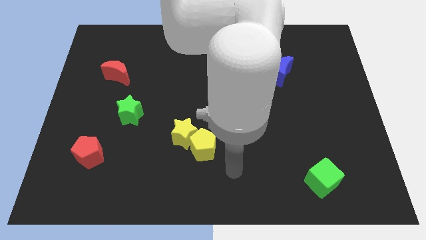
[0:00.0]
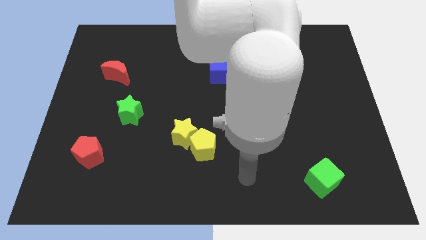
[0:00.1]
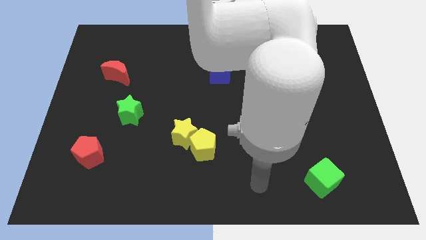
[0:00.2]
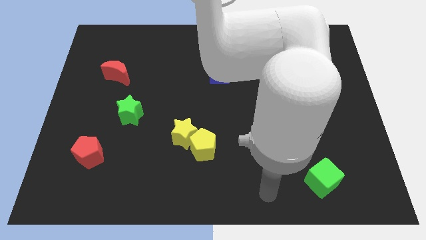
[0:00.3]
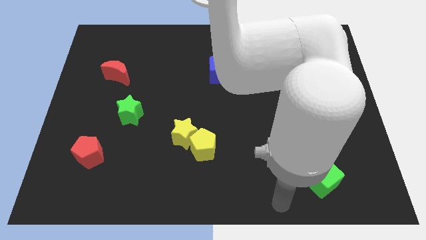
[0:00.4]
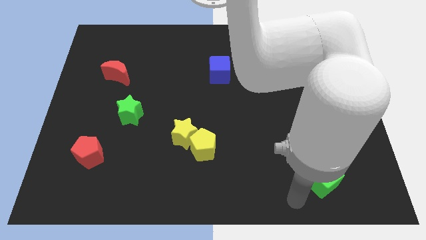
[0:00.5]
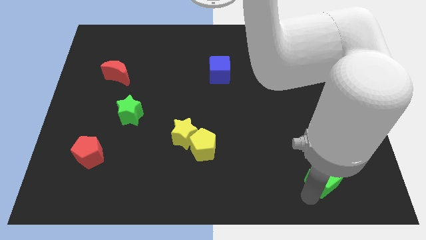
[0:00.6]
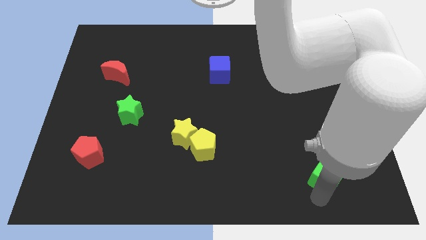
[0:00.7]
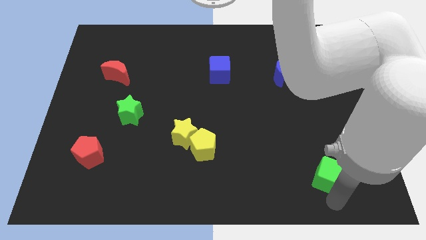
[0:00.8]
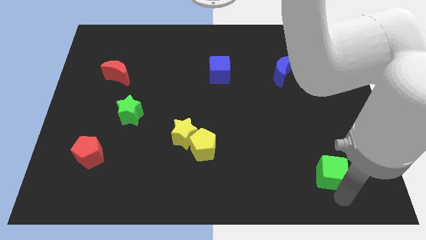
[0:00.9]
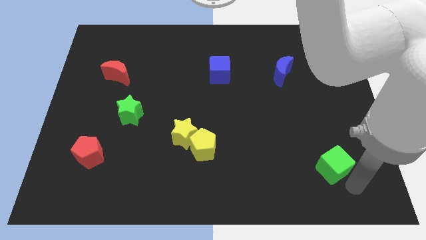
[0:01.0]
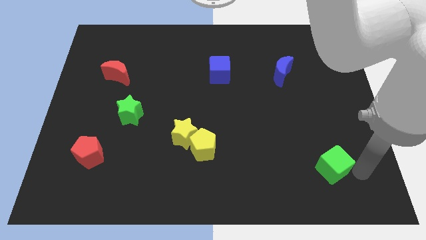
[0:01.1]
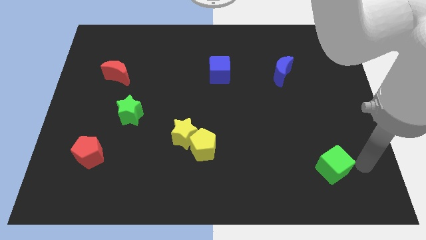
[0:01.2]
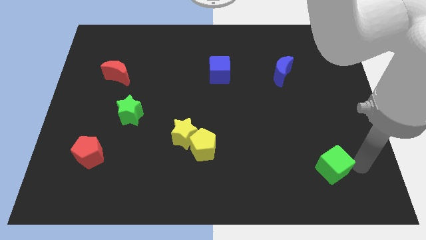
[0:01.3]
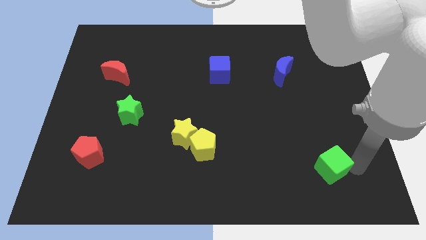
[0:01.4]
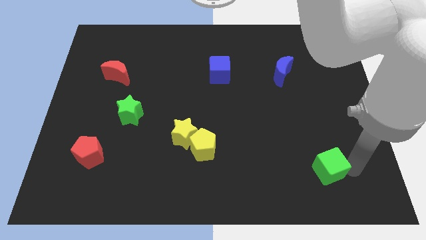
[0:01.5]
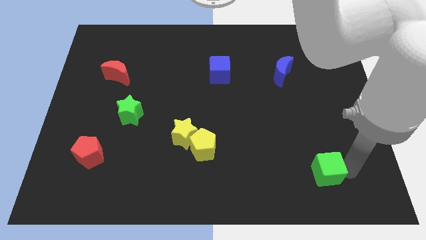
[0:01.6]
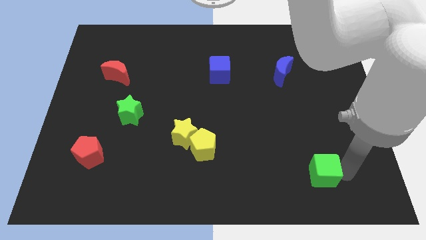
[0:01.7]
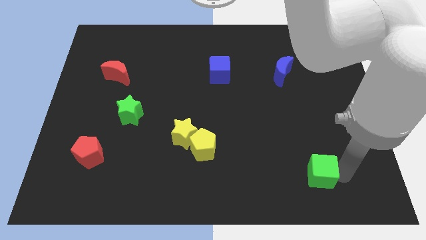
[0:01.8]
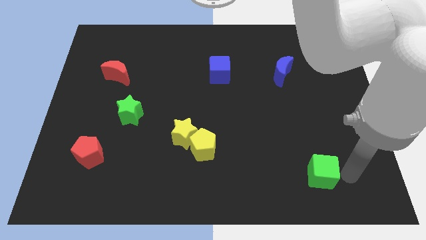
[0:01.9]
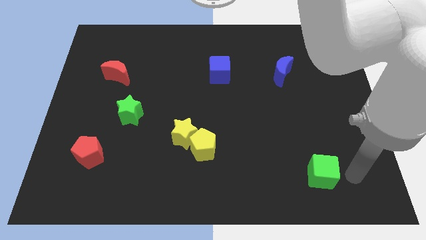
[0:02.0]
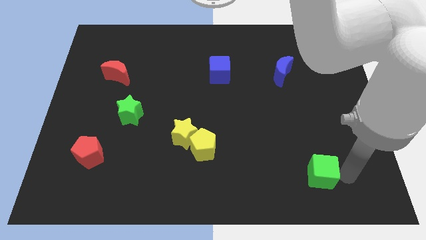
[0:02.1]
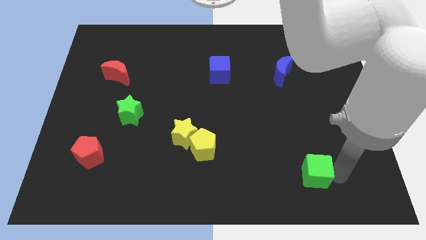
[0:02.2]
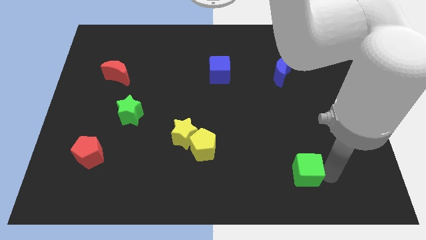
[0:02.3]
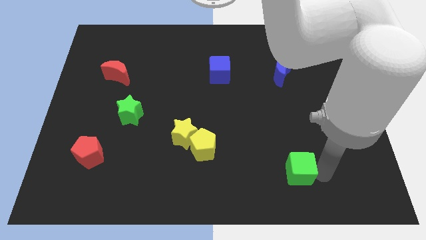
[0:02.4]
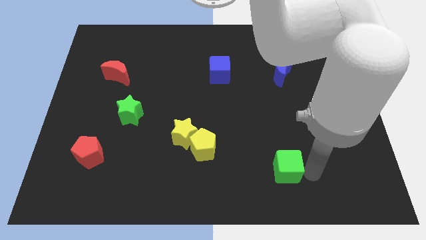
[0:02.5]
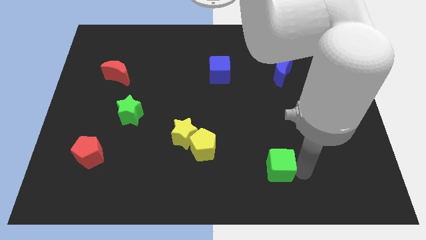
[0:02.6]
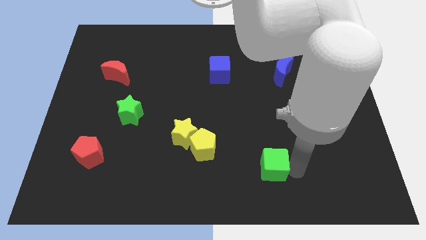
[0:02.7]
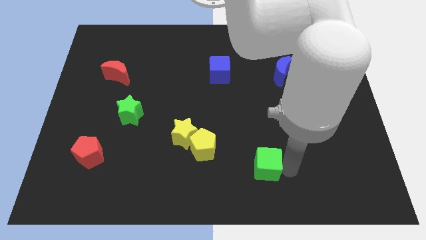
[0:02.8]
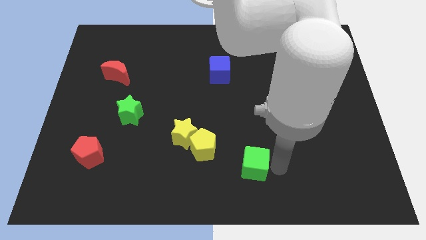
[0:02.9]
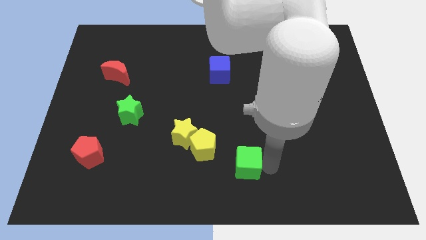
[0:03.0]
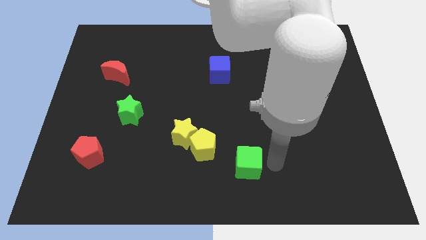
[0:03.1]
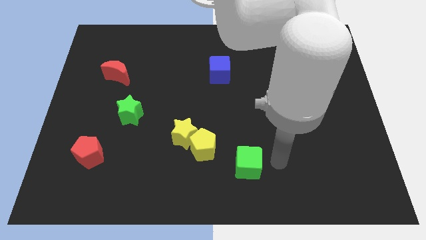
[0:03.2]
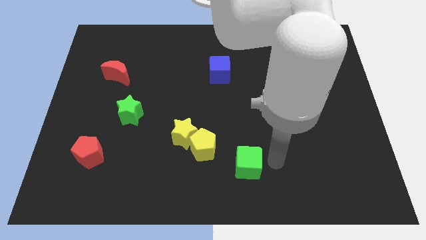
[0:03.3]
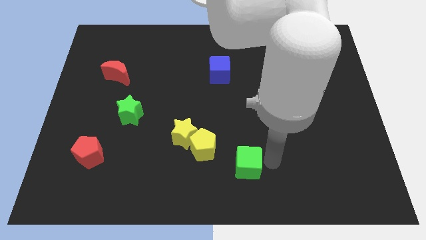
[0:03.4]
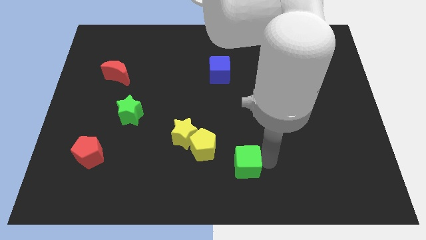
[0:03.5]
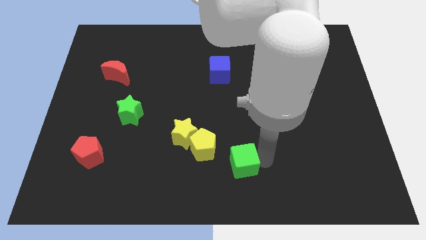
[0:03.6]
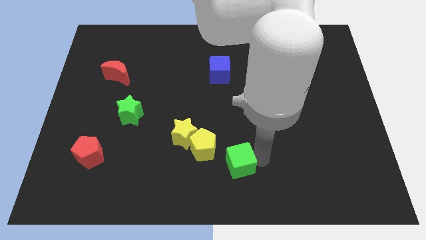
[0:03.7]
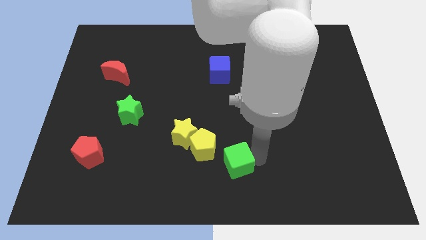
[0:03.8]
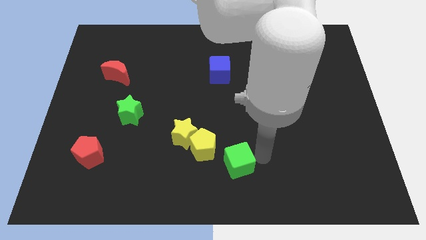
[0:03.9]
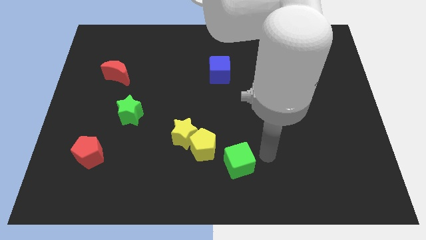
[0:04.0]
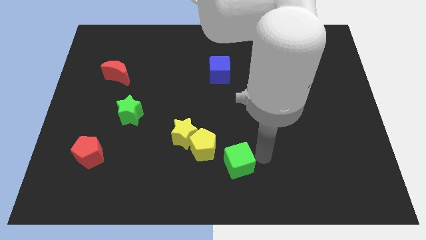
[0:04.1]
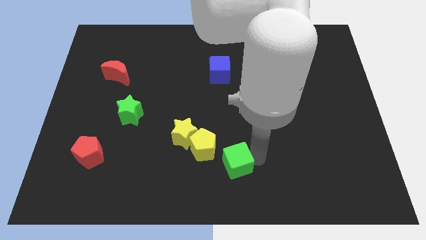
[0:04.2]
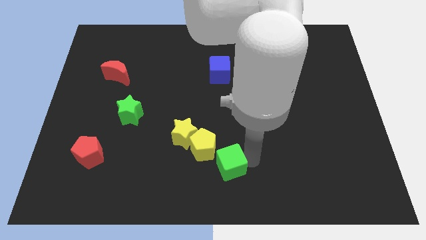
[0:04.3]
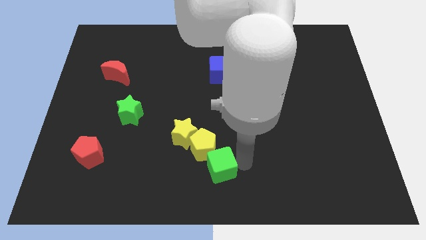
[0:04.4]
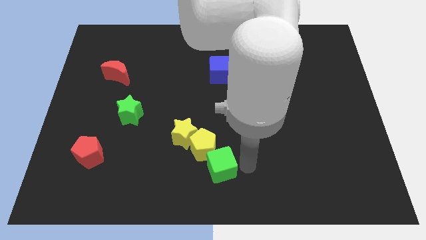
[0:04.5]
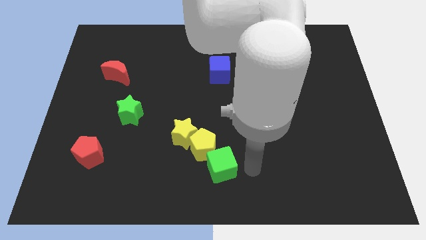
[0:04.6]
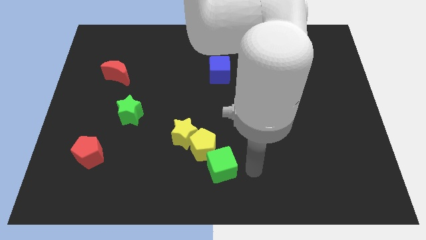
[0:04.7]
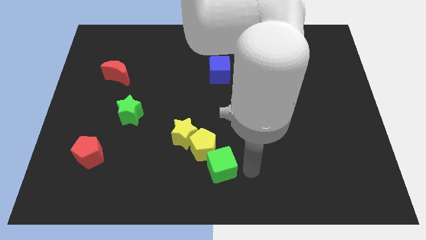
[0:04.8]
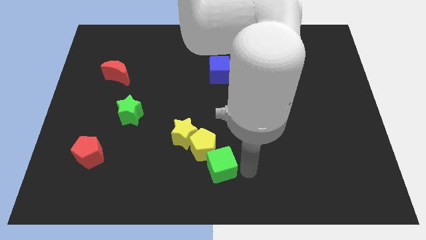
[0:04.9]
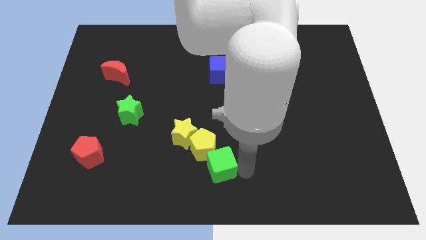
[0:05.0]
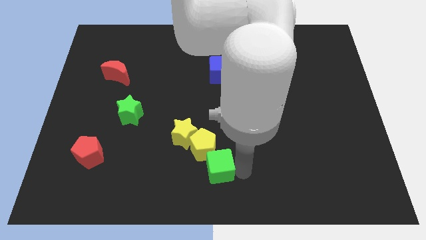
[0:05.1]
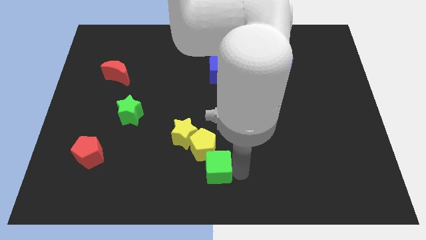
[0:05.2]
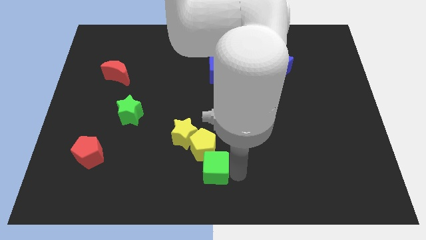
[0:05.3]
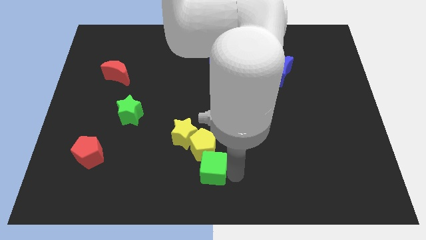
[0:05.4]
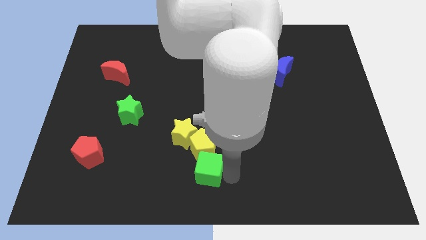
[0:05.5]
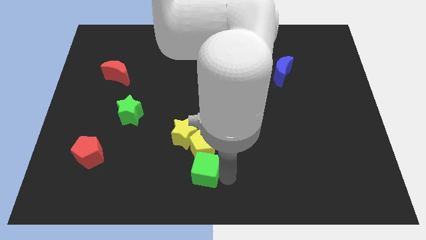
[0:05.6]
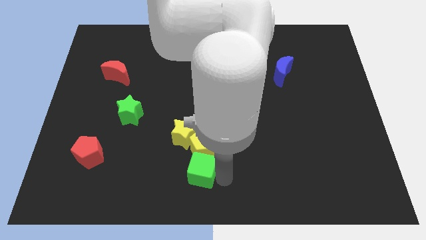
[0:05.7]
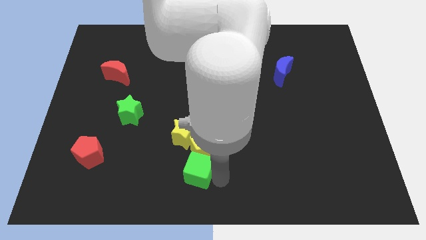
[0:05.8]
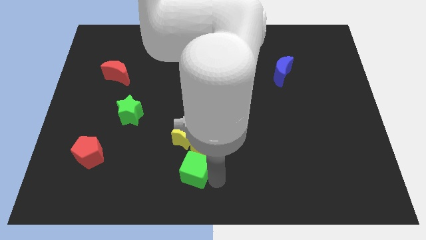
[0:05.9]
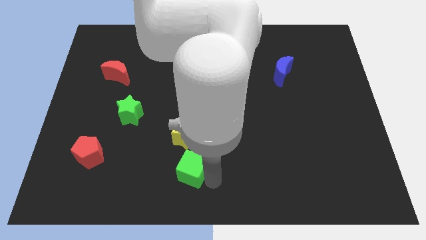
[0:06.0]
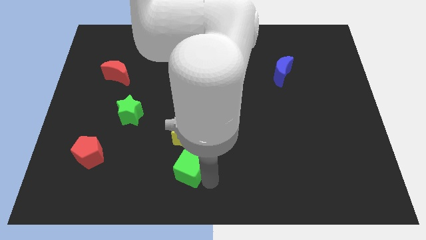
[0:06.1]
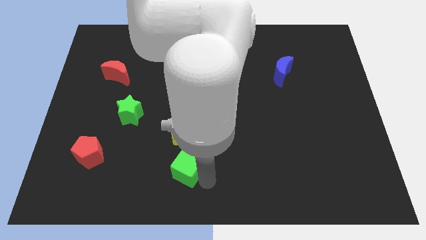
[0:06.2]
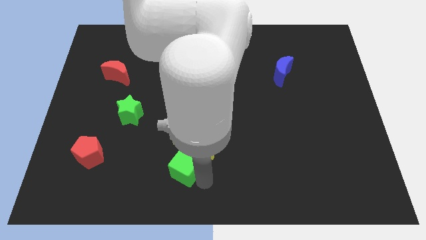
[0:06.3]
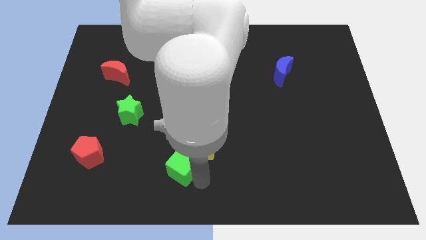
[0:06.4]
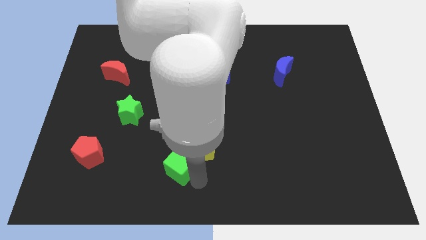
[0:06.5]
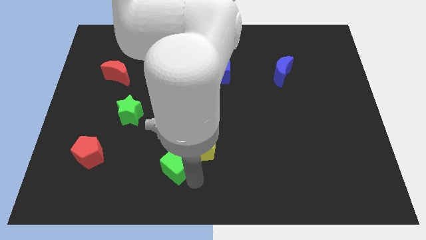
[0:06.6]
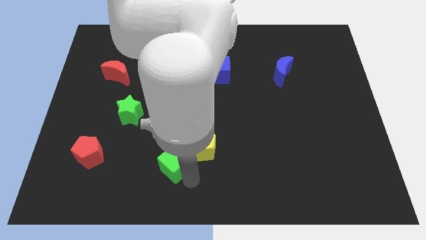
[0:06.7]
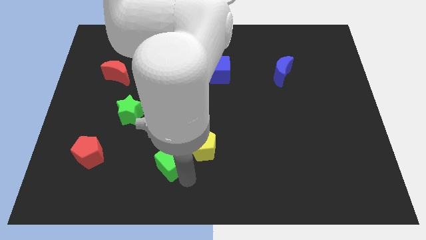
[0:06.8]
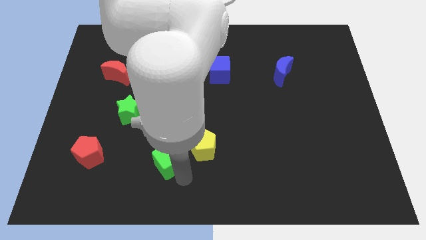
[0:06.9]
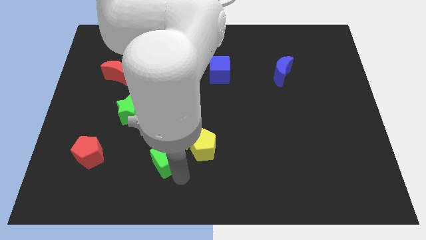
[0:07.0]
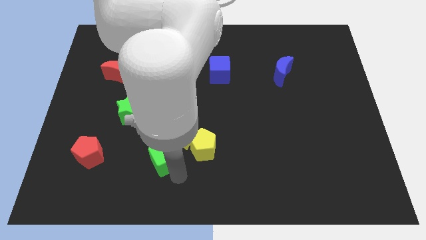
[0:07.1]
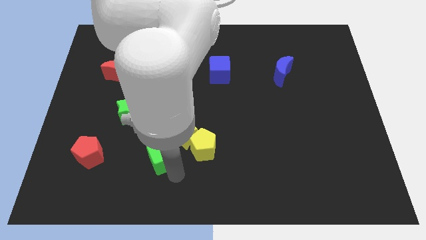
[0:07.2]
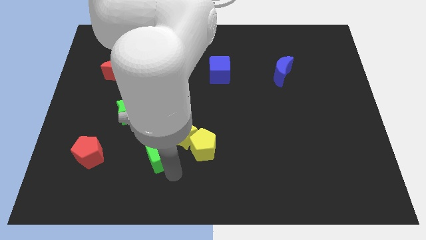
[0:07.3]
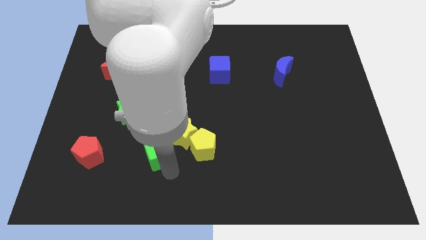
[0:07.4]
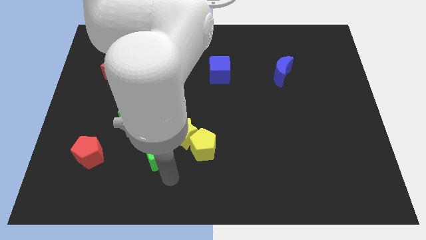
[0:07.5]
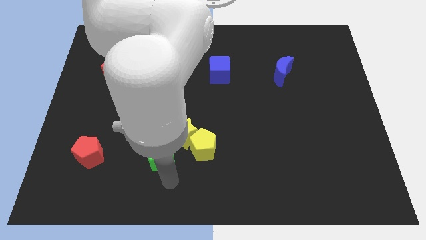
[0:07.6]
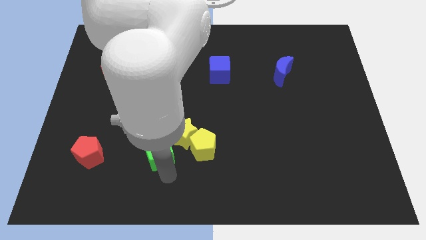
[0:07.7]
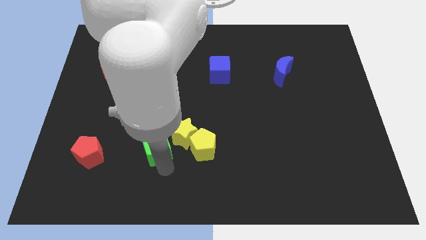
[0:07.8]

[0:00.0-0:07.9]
put the green cube to the bottom right of the green star
